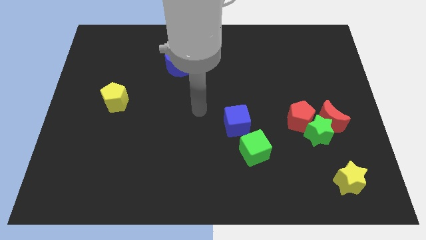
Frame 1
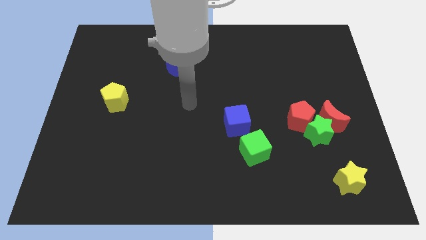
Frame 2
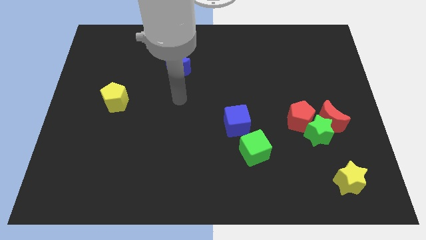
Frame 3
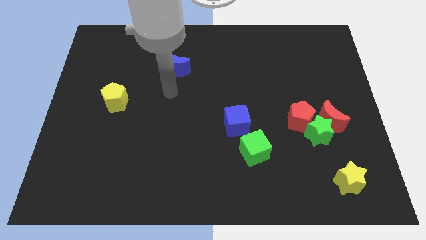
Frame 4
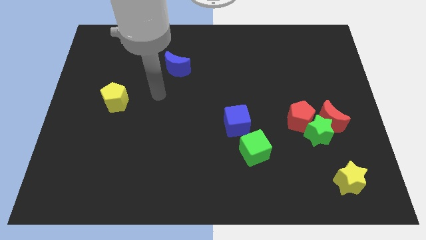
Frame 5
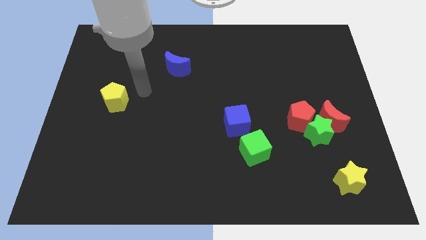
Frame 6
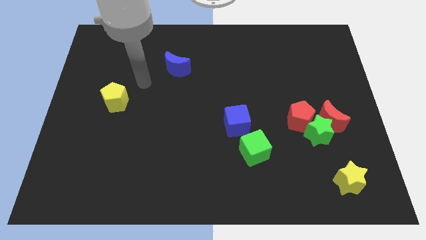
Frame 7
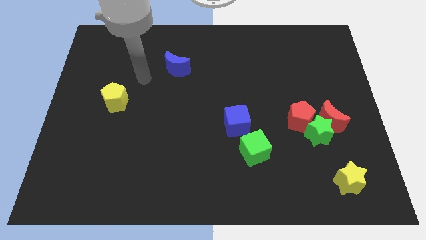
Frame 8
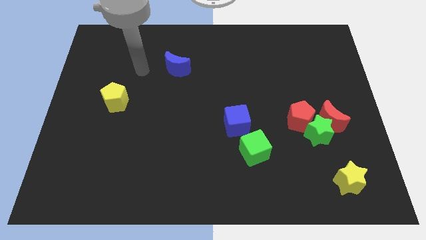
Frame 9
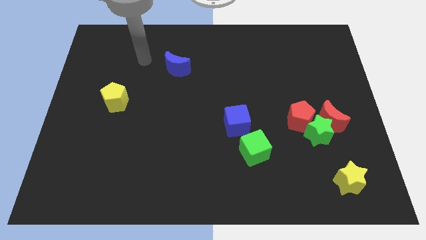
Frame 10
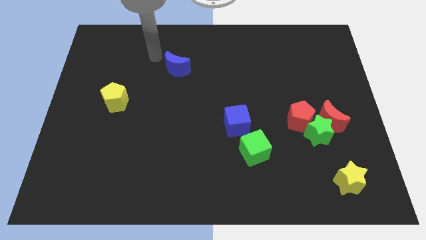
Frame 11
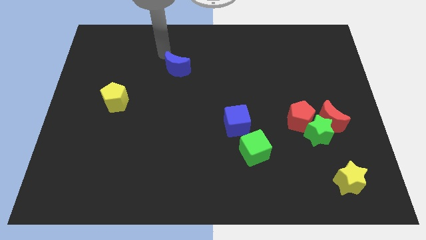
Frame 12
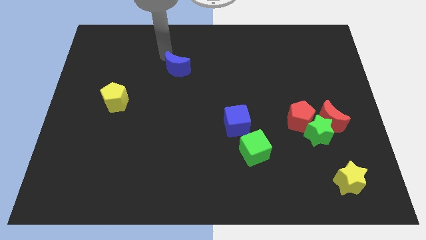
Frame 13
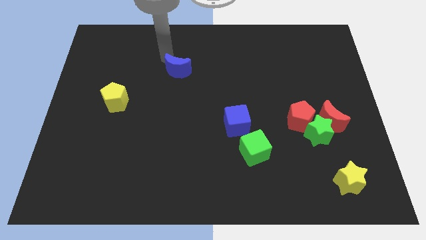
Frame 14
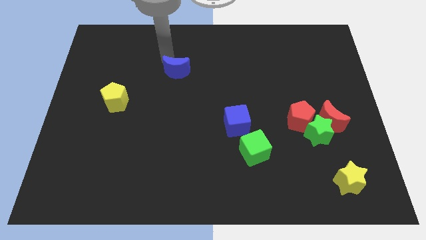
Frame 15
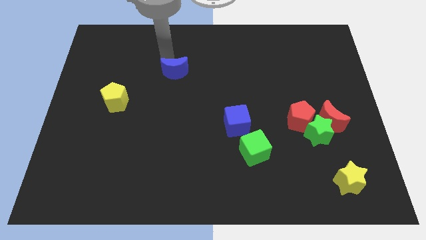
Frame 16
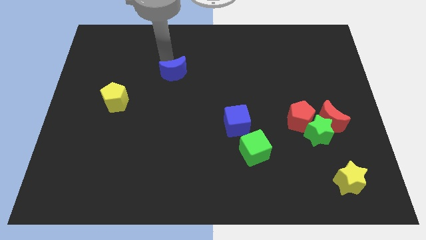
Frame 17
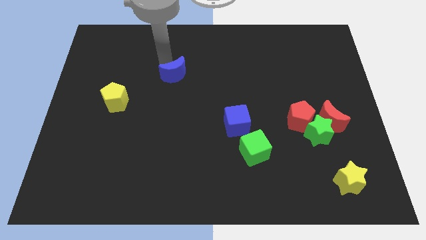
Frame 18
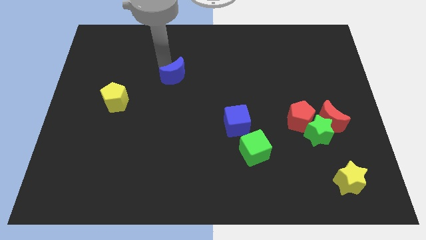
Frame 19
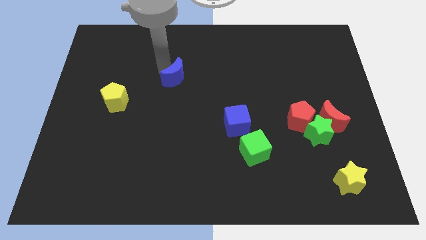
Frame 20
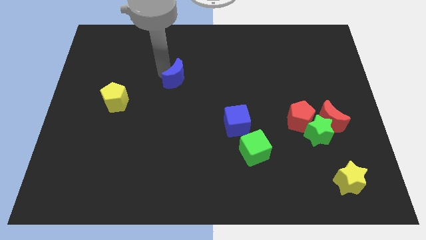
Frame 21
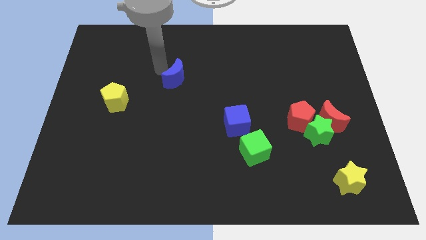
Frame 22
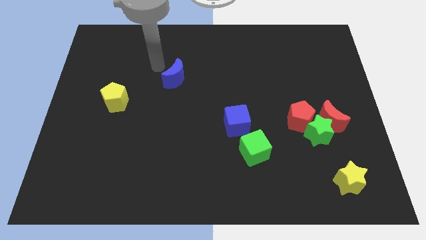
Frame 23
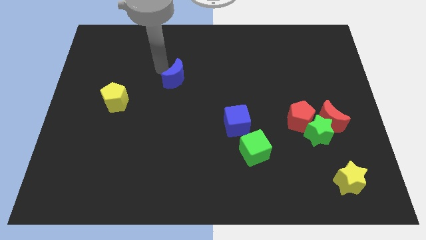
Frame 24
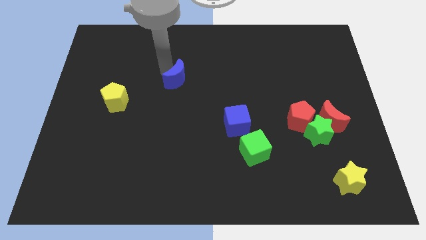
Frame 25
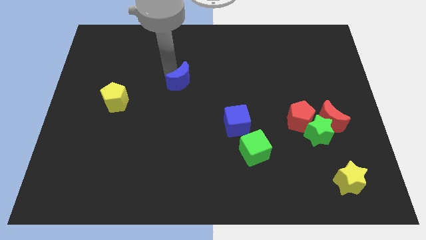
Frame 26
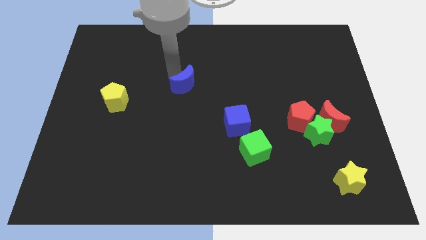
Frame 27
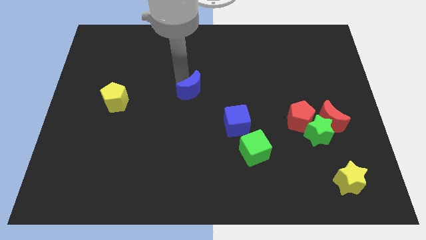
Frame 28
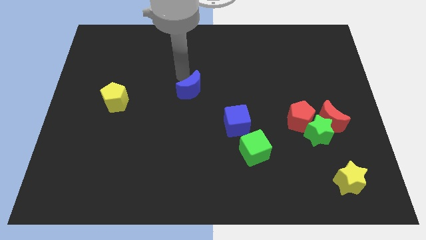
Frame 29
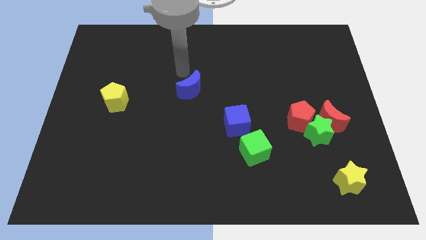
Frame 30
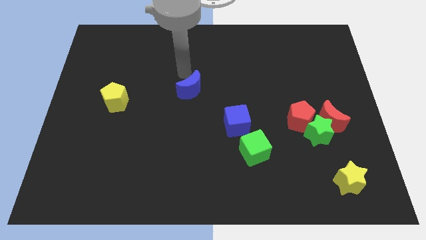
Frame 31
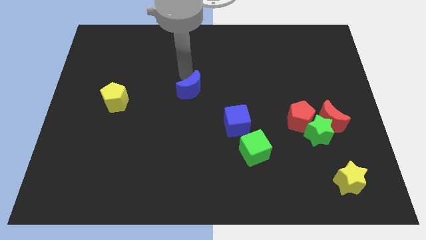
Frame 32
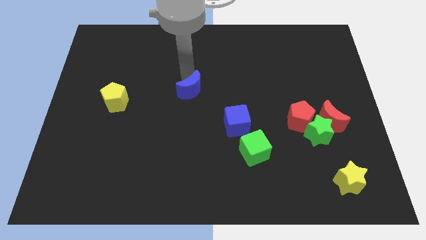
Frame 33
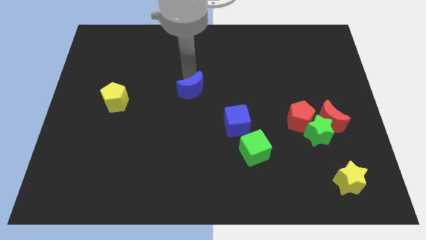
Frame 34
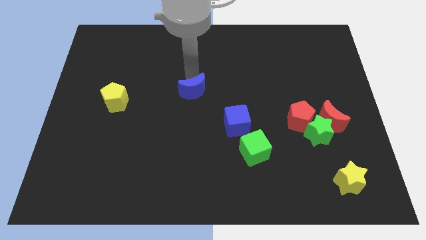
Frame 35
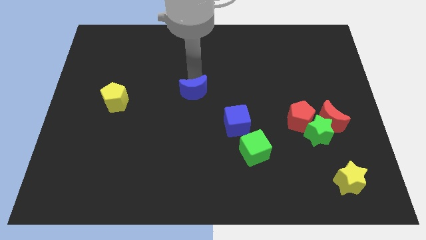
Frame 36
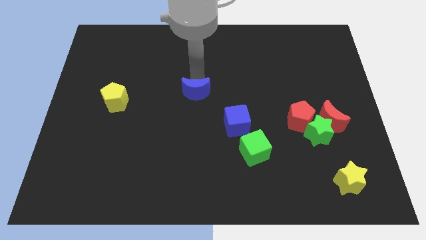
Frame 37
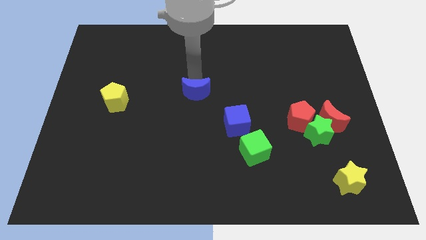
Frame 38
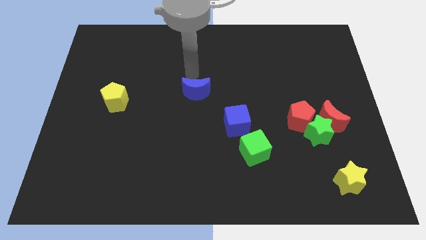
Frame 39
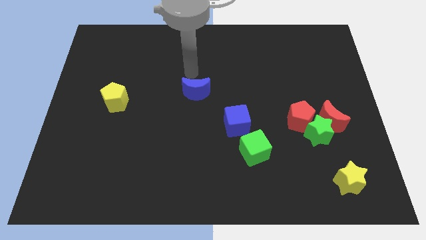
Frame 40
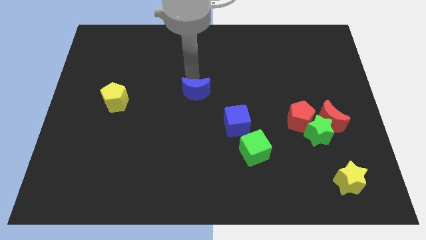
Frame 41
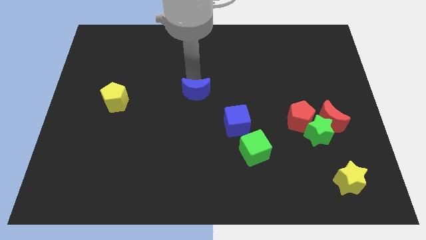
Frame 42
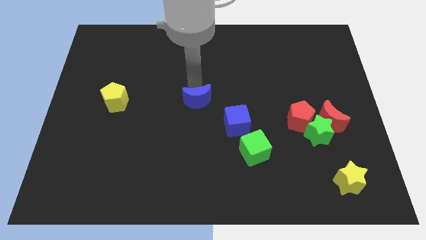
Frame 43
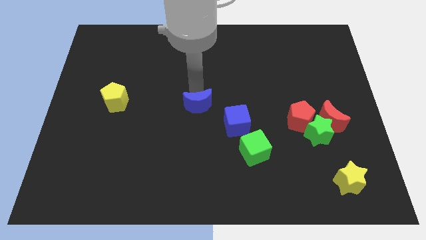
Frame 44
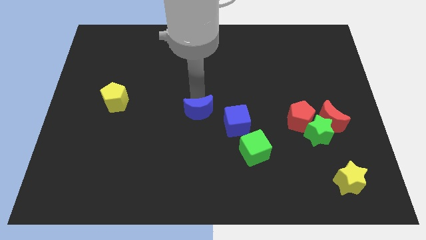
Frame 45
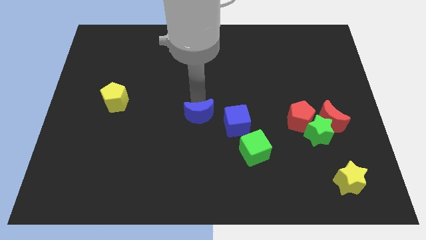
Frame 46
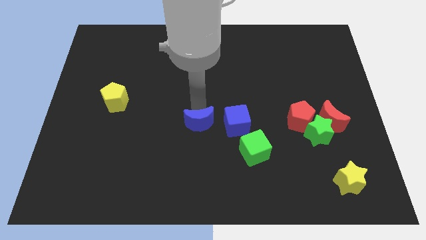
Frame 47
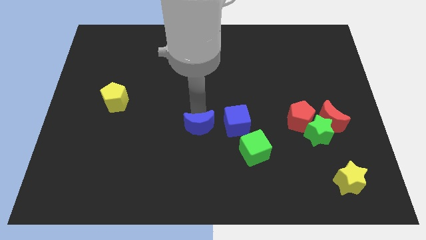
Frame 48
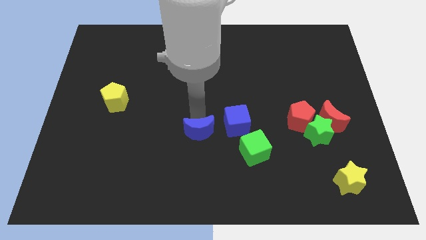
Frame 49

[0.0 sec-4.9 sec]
slide the blue moon to the left side of the green cube

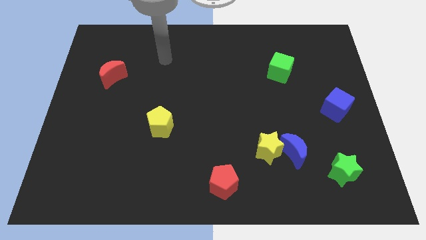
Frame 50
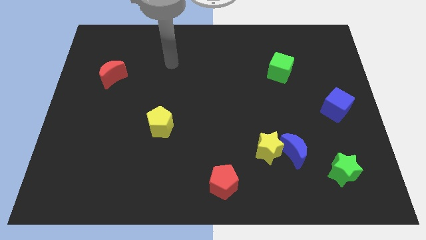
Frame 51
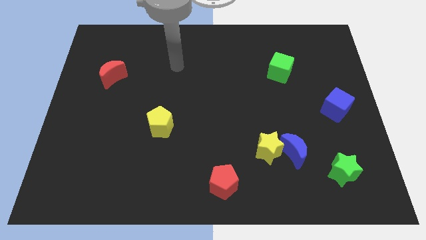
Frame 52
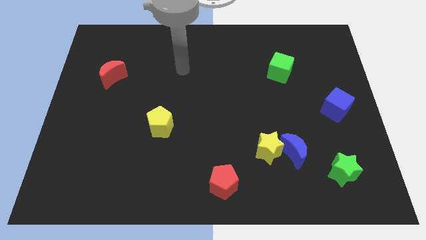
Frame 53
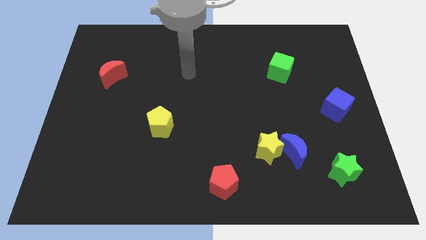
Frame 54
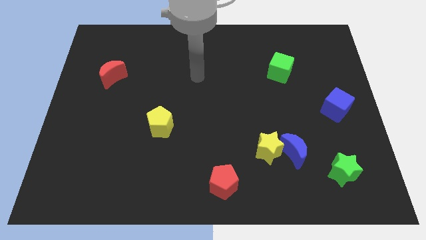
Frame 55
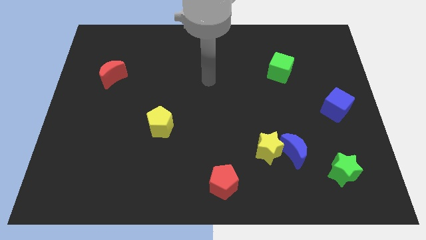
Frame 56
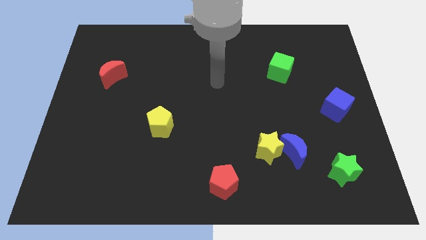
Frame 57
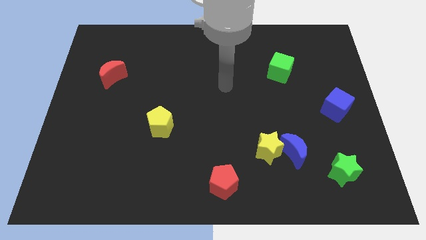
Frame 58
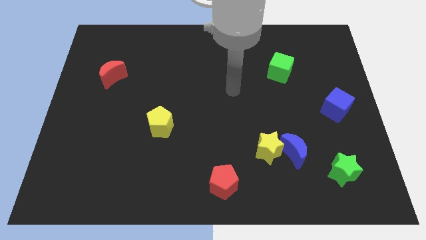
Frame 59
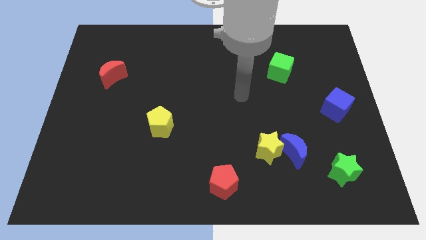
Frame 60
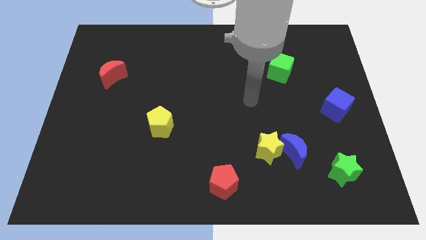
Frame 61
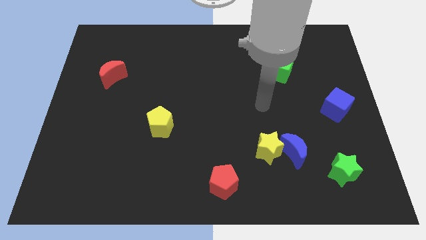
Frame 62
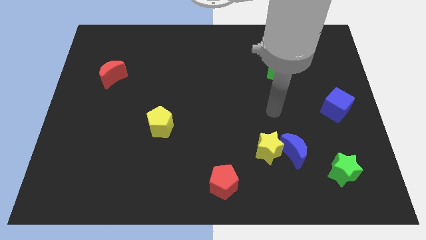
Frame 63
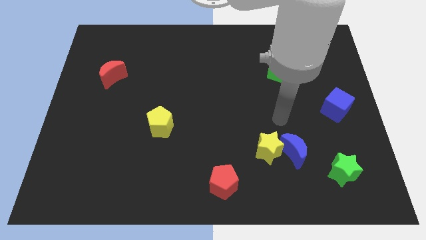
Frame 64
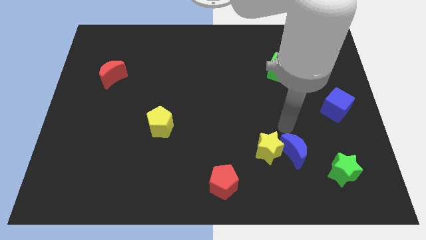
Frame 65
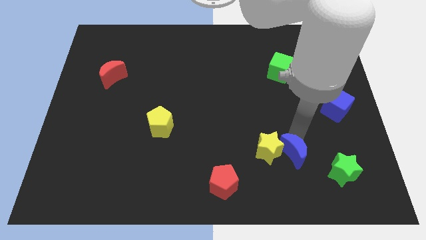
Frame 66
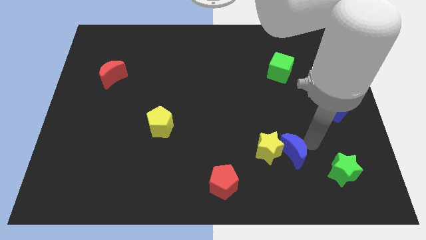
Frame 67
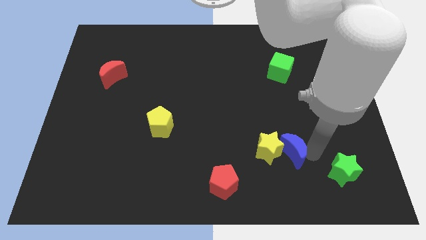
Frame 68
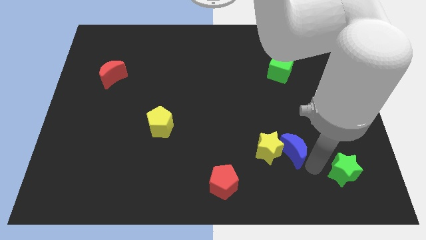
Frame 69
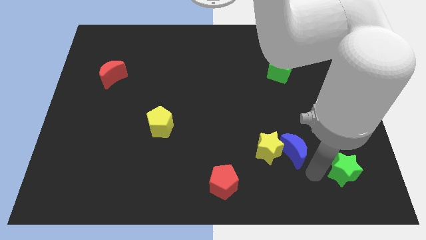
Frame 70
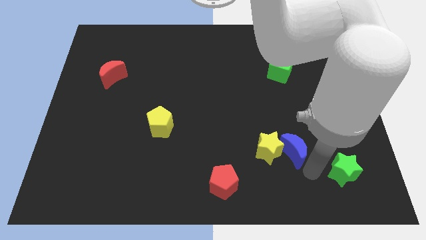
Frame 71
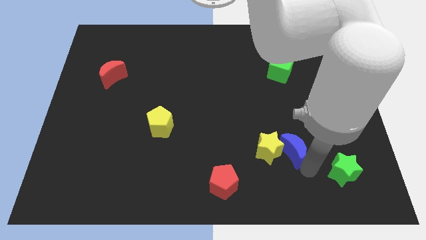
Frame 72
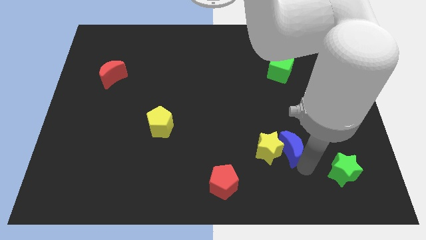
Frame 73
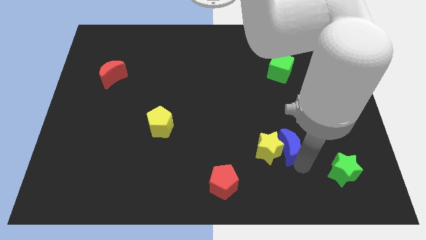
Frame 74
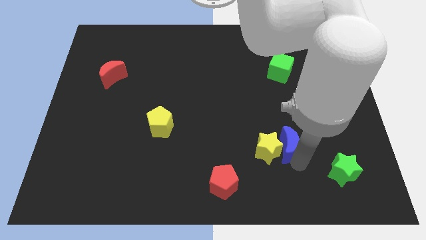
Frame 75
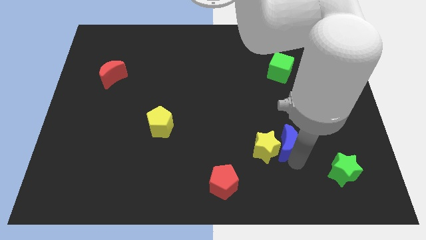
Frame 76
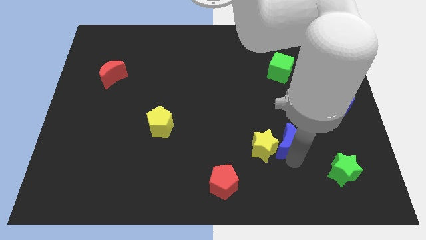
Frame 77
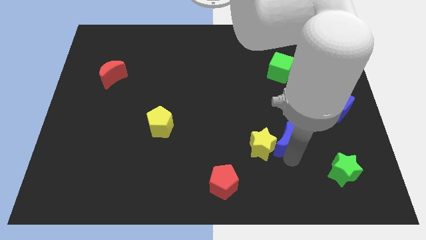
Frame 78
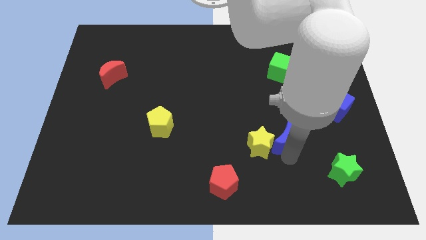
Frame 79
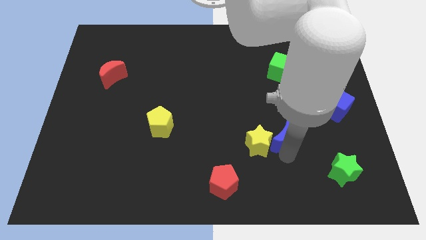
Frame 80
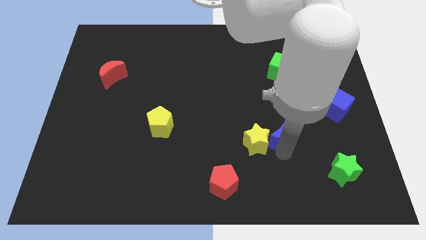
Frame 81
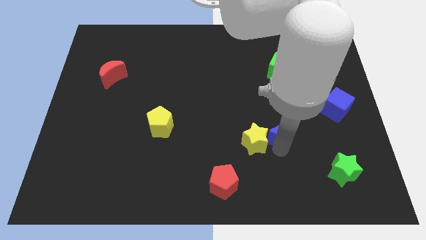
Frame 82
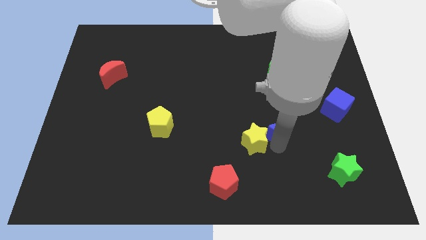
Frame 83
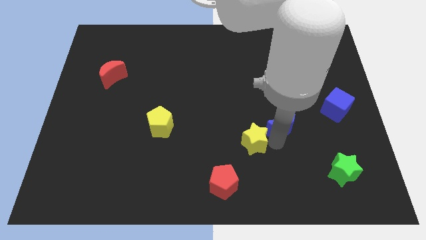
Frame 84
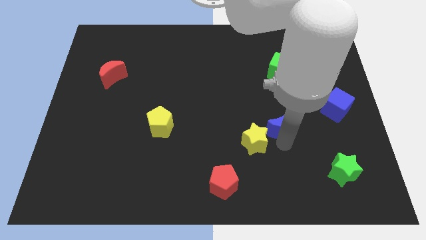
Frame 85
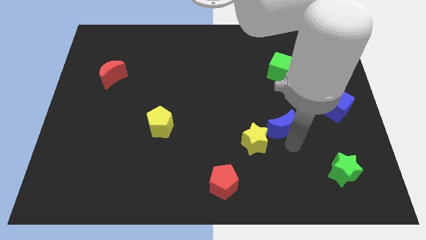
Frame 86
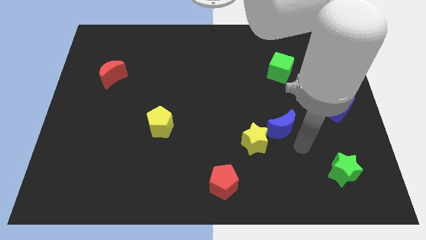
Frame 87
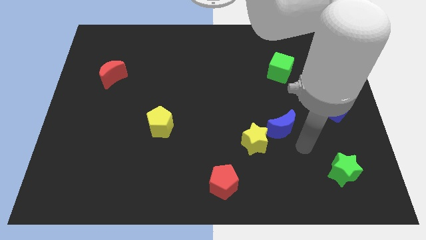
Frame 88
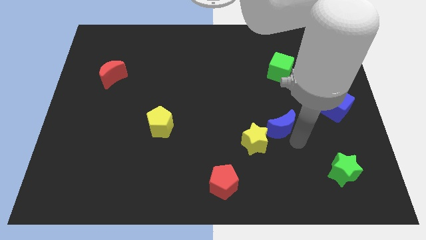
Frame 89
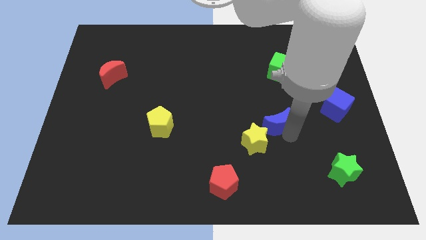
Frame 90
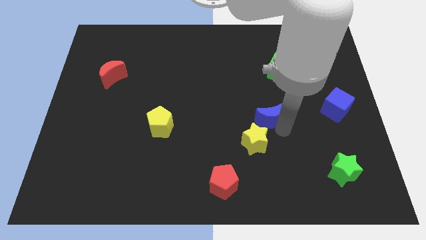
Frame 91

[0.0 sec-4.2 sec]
slide the blue moon above the yellow star
